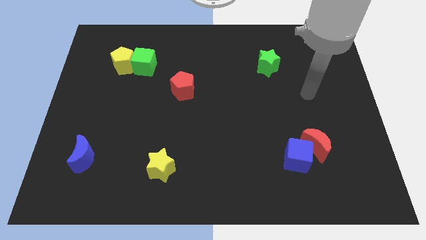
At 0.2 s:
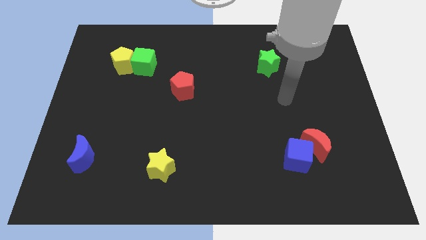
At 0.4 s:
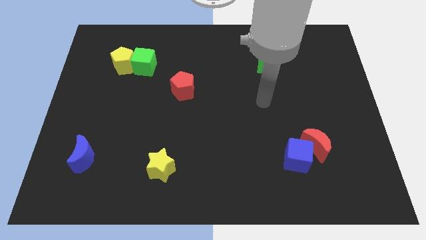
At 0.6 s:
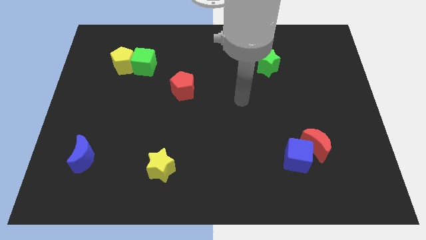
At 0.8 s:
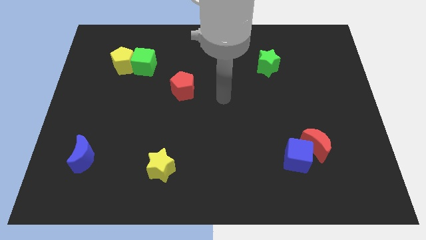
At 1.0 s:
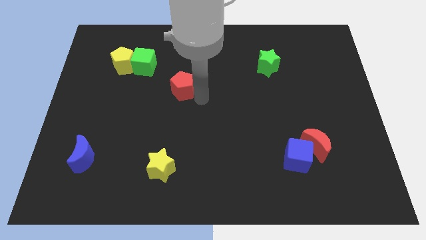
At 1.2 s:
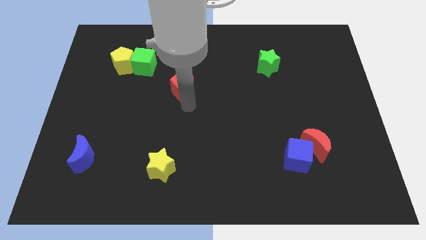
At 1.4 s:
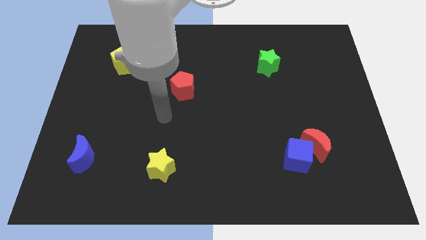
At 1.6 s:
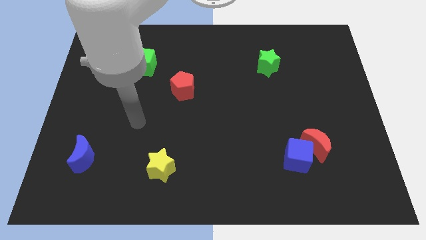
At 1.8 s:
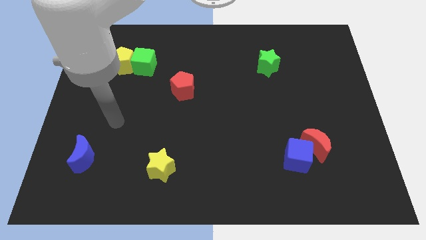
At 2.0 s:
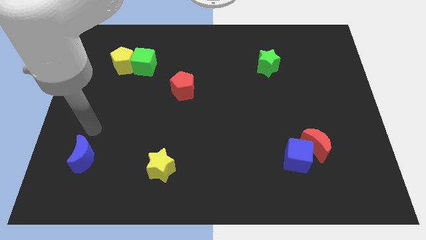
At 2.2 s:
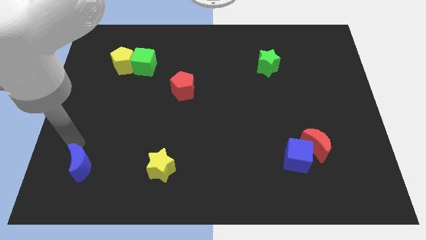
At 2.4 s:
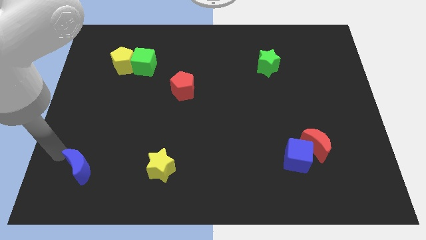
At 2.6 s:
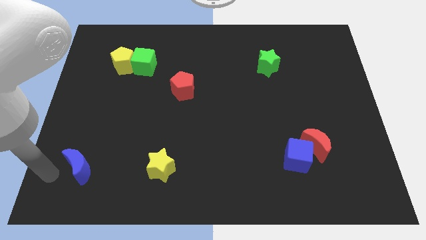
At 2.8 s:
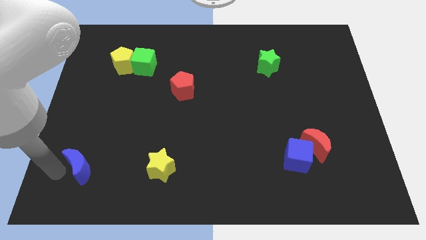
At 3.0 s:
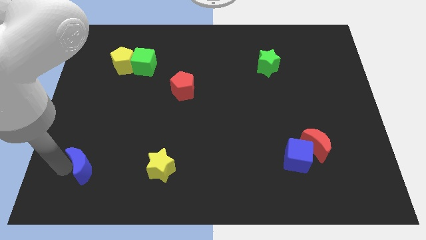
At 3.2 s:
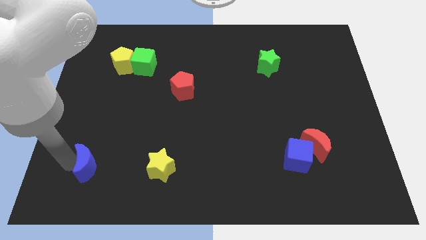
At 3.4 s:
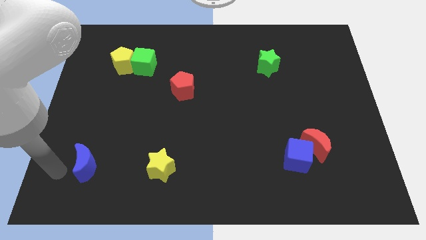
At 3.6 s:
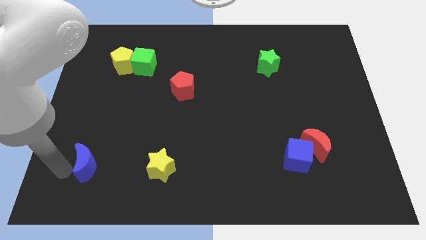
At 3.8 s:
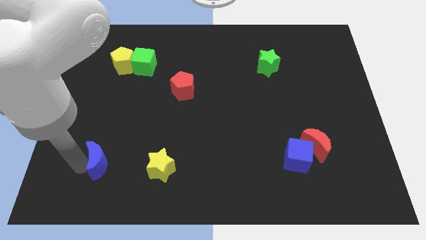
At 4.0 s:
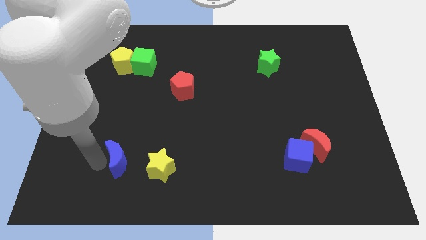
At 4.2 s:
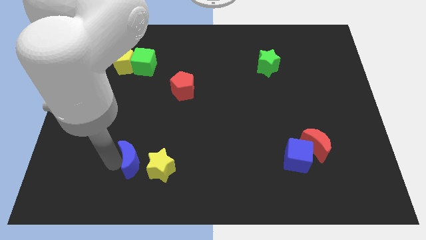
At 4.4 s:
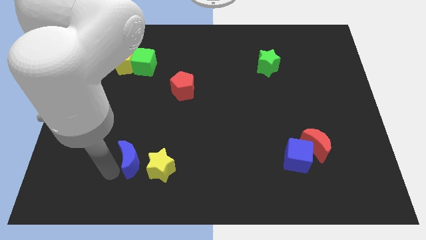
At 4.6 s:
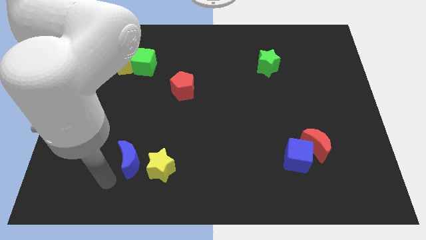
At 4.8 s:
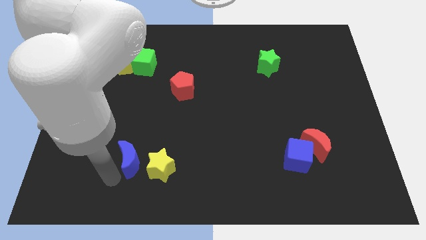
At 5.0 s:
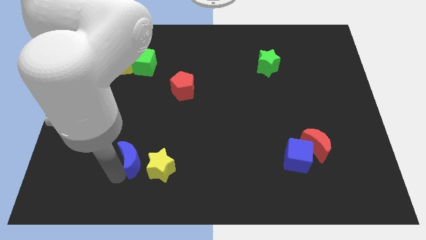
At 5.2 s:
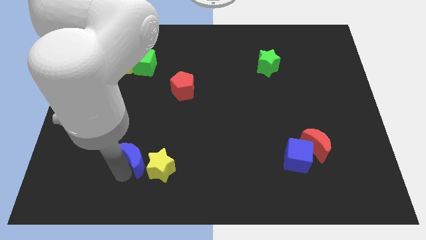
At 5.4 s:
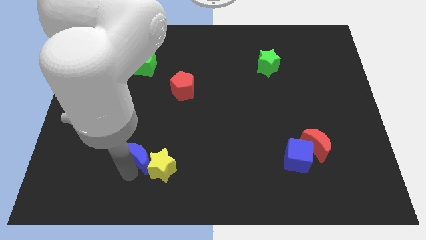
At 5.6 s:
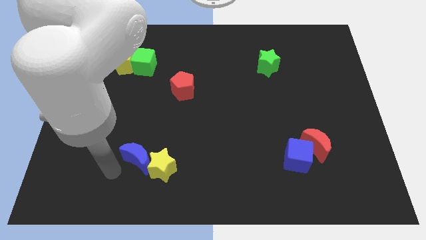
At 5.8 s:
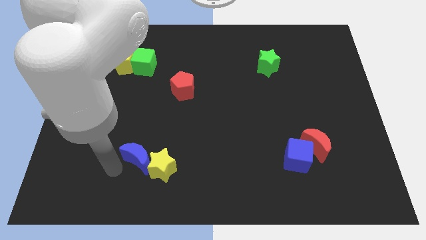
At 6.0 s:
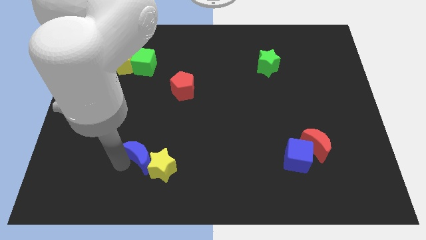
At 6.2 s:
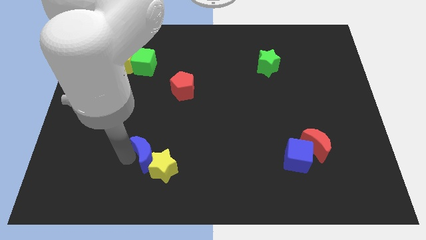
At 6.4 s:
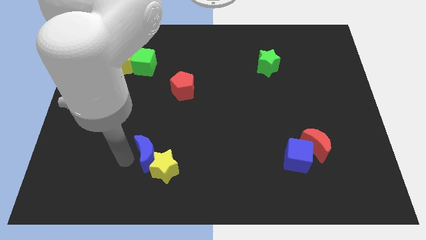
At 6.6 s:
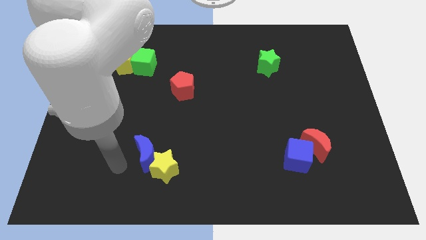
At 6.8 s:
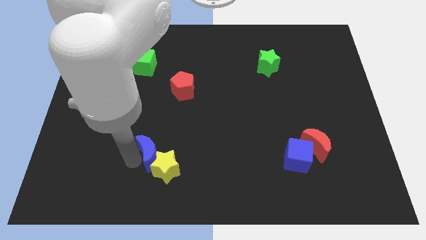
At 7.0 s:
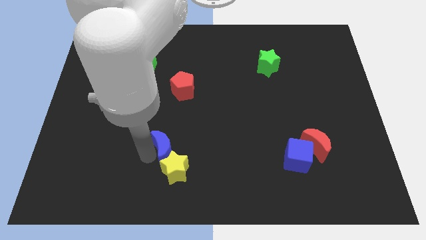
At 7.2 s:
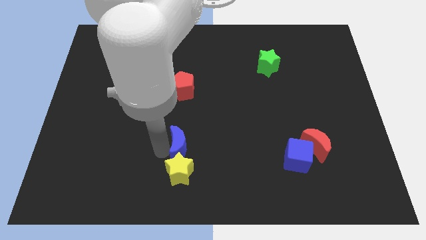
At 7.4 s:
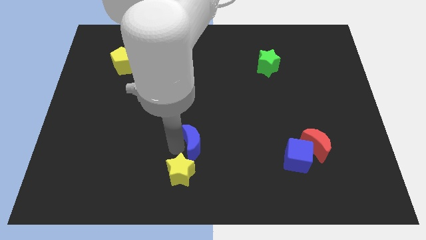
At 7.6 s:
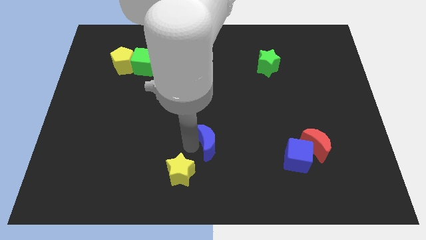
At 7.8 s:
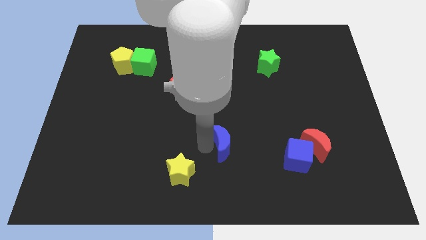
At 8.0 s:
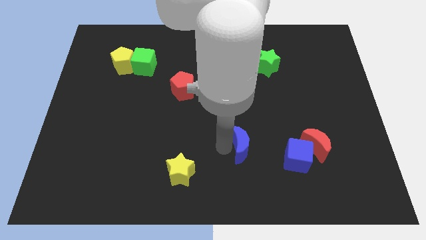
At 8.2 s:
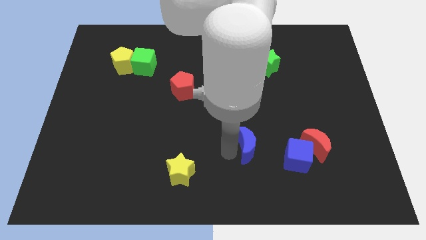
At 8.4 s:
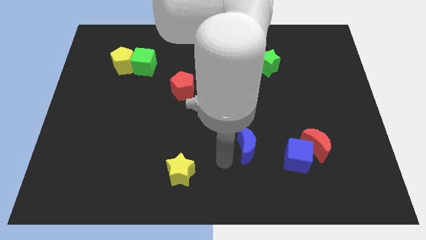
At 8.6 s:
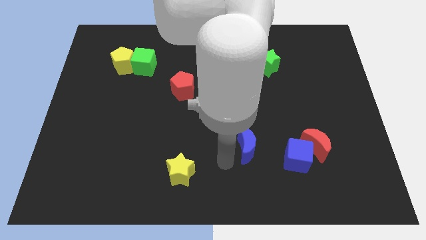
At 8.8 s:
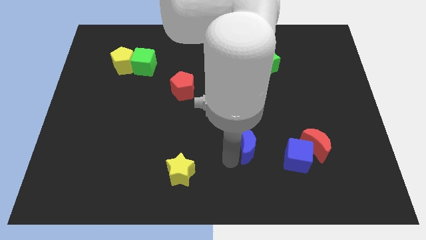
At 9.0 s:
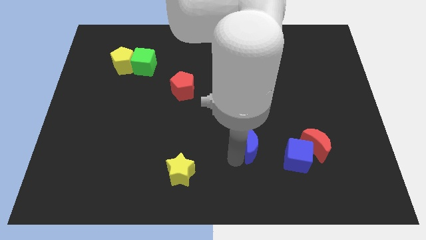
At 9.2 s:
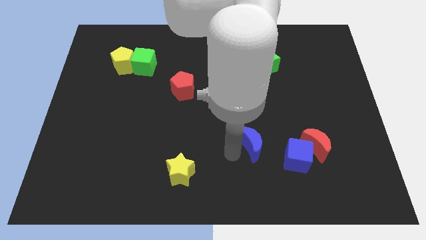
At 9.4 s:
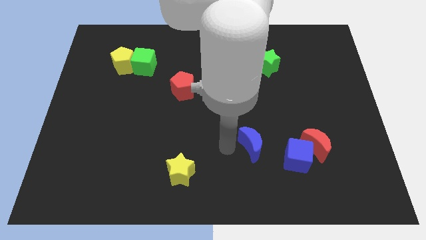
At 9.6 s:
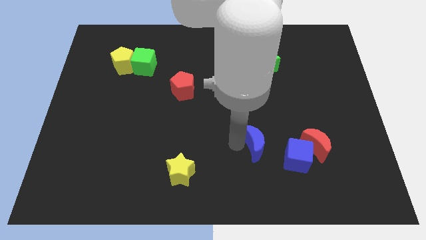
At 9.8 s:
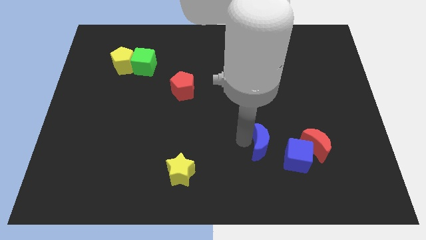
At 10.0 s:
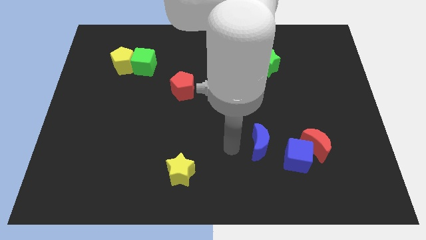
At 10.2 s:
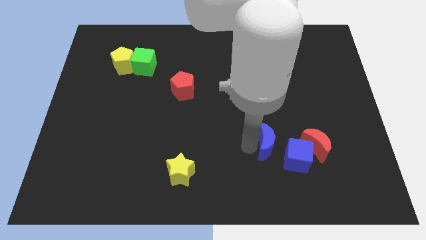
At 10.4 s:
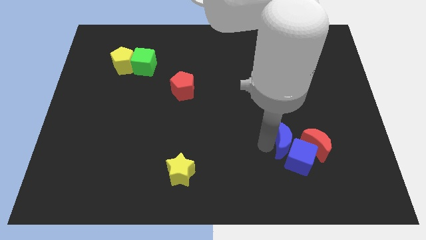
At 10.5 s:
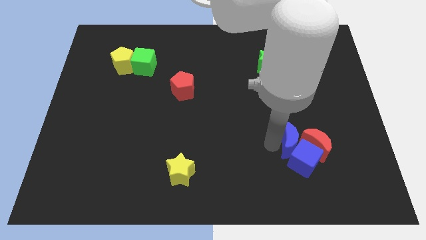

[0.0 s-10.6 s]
push the blue moon towards the red moon

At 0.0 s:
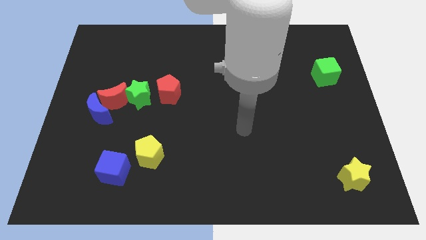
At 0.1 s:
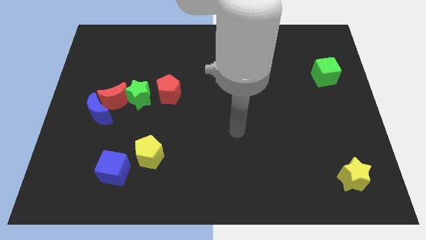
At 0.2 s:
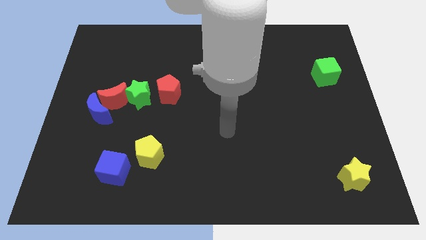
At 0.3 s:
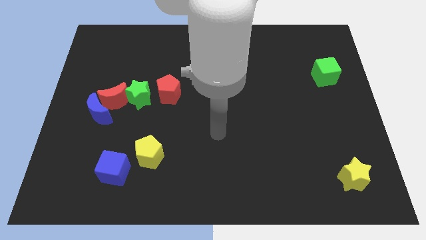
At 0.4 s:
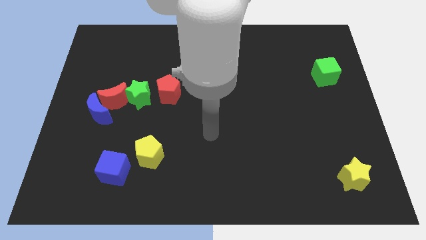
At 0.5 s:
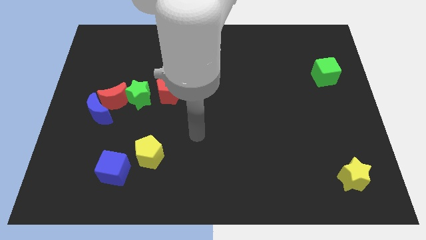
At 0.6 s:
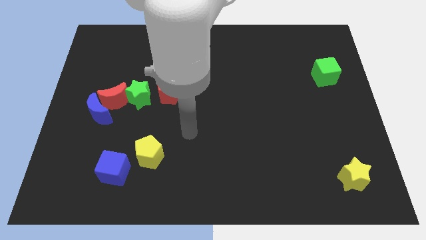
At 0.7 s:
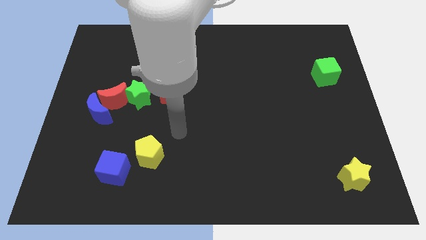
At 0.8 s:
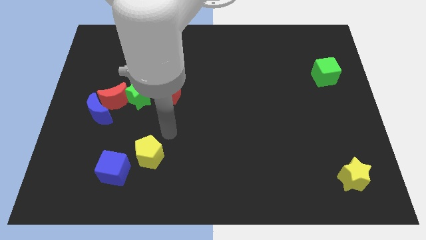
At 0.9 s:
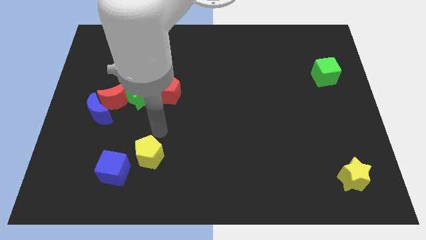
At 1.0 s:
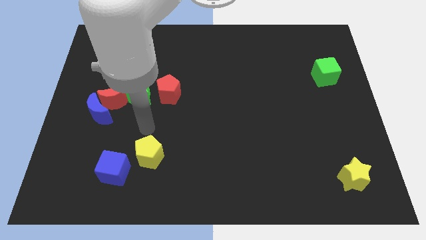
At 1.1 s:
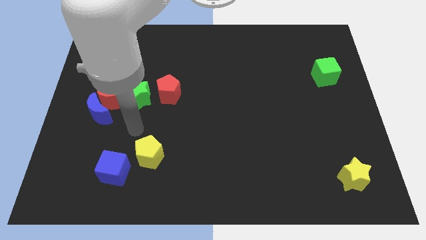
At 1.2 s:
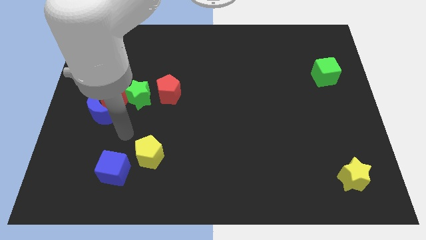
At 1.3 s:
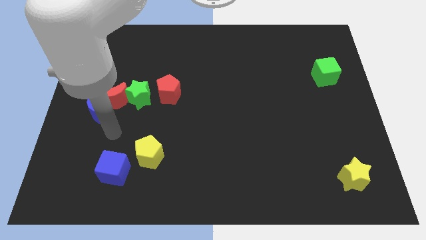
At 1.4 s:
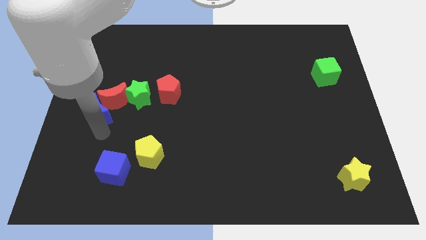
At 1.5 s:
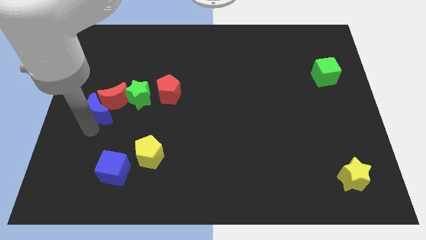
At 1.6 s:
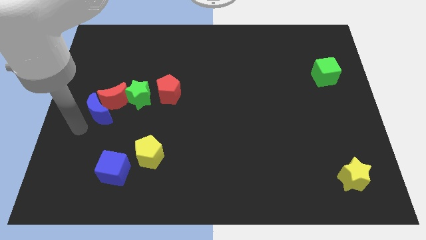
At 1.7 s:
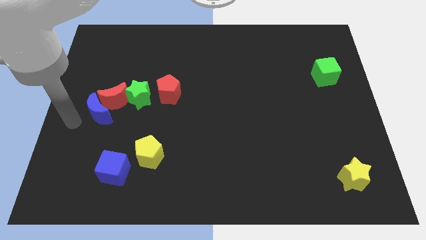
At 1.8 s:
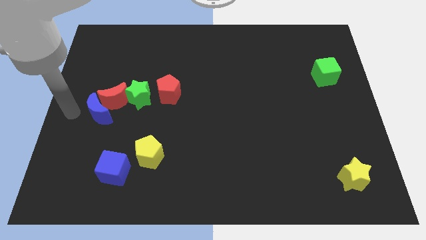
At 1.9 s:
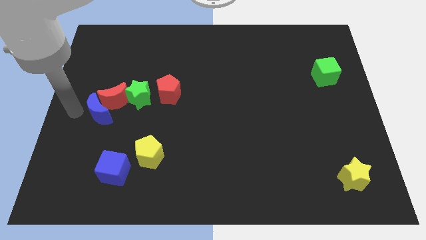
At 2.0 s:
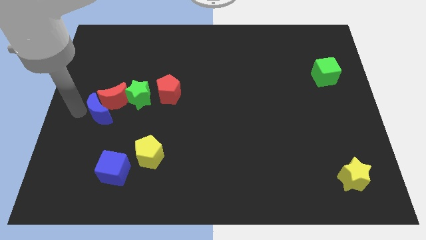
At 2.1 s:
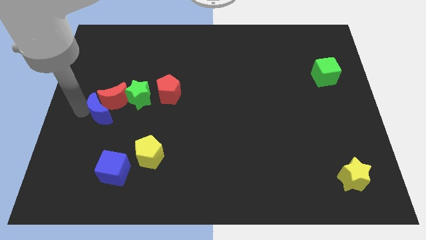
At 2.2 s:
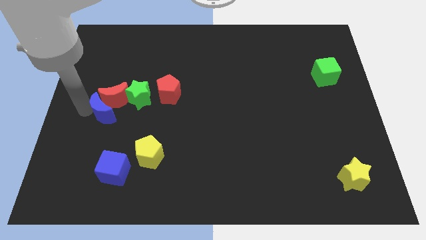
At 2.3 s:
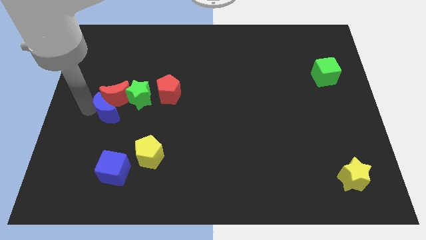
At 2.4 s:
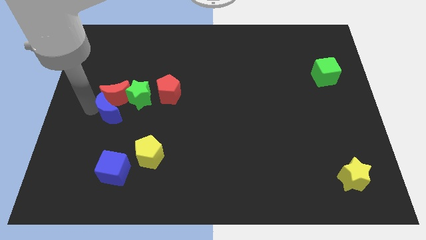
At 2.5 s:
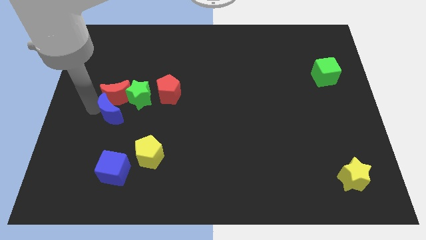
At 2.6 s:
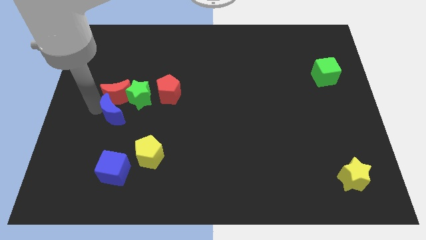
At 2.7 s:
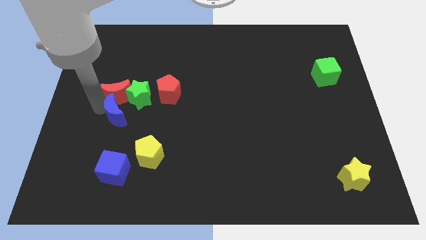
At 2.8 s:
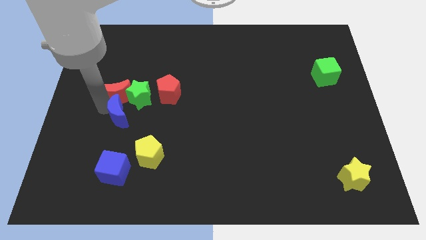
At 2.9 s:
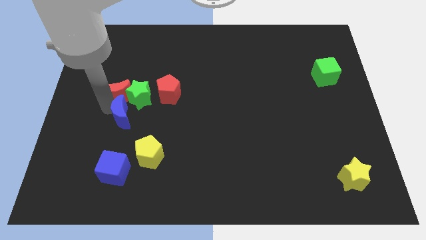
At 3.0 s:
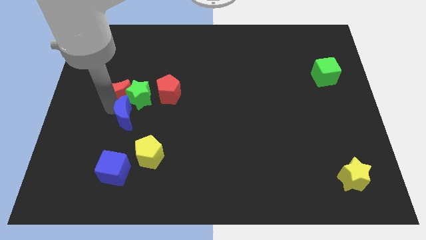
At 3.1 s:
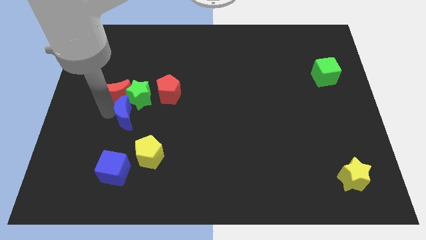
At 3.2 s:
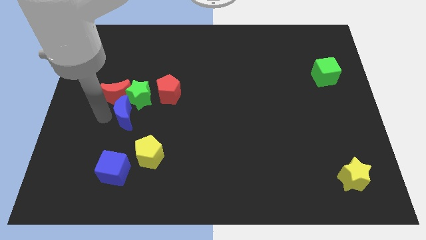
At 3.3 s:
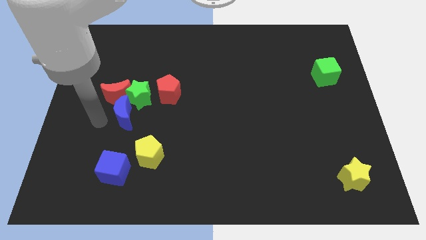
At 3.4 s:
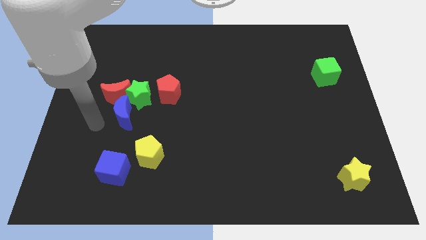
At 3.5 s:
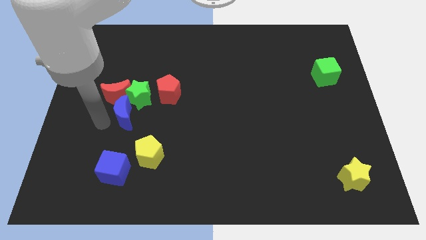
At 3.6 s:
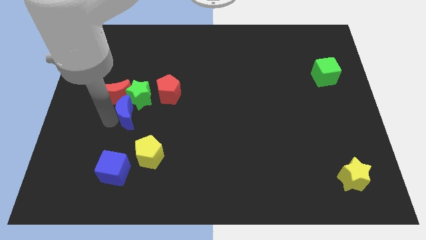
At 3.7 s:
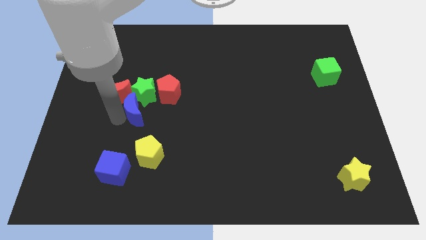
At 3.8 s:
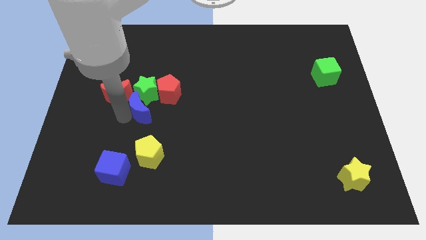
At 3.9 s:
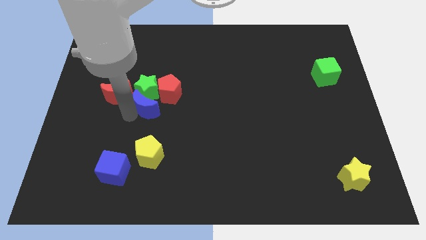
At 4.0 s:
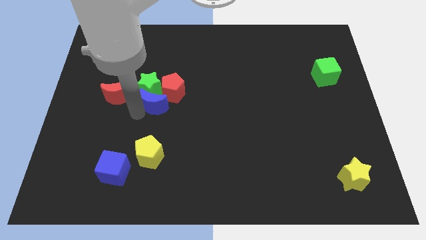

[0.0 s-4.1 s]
slide the blue moon to the red pentagon
